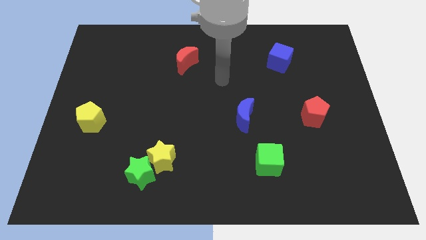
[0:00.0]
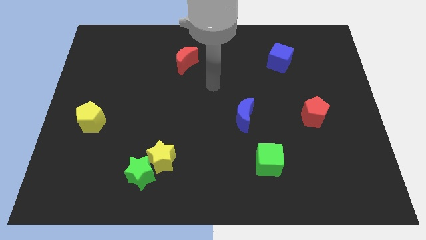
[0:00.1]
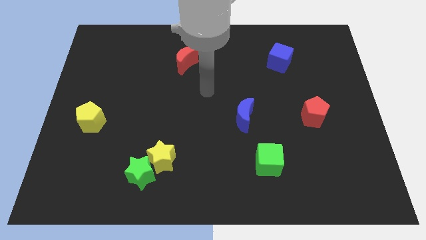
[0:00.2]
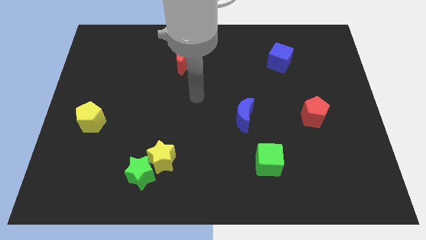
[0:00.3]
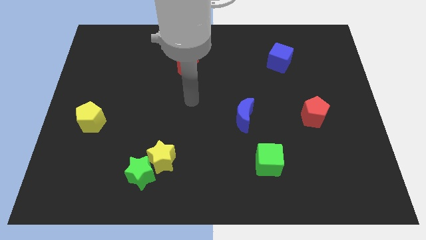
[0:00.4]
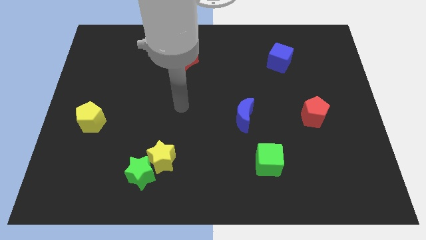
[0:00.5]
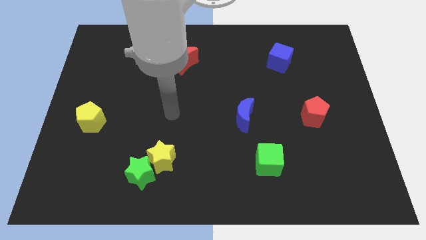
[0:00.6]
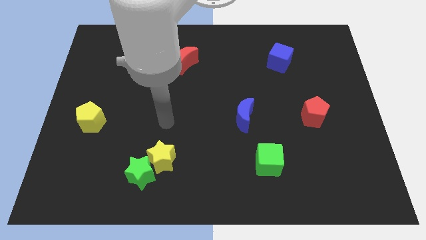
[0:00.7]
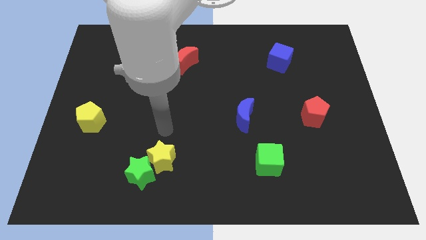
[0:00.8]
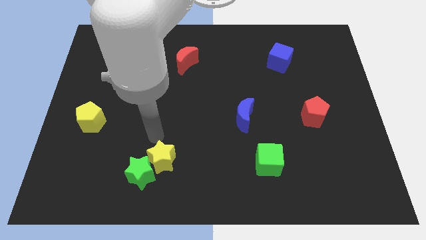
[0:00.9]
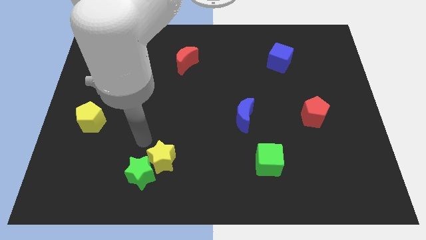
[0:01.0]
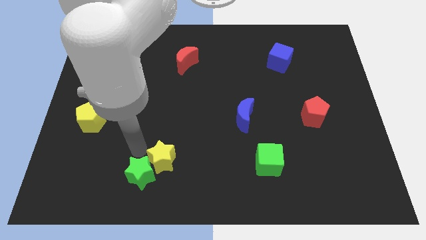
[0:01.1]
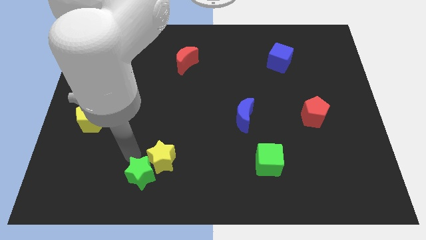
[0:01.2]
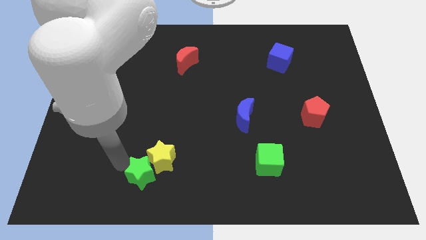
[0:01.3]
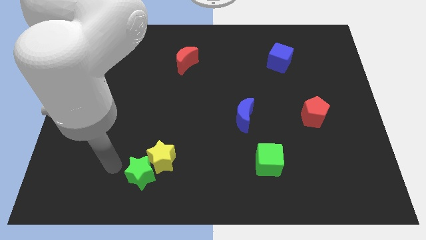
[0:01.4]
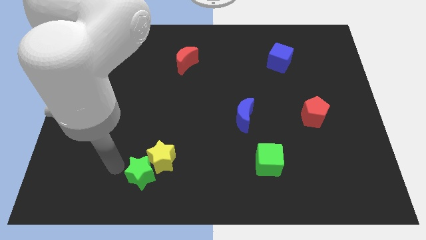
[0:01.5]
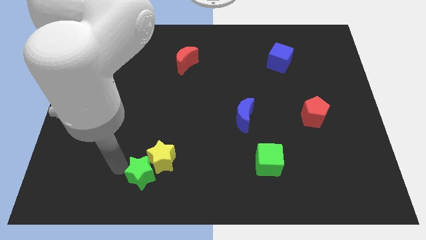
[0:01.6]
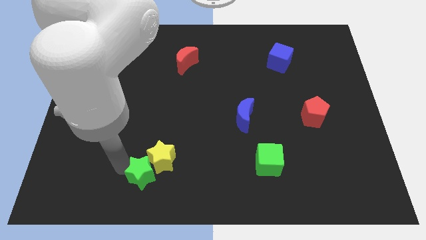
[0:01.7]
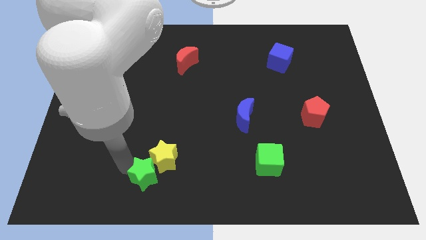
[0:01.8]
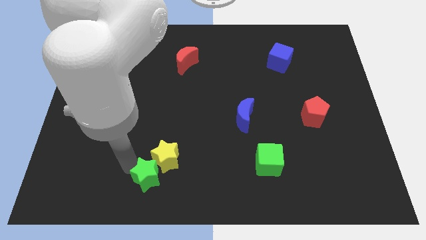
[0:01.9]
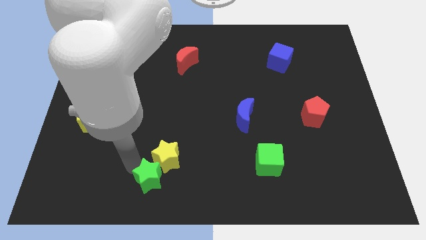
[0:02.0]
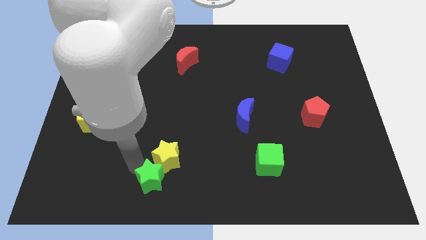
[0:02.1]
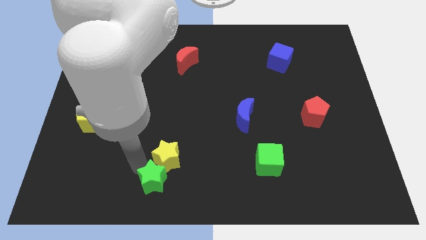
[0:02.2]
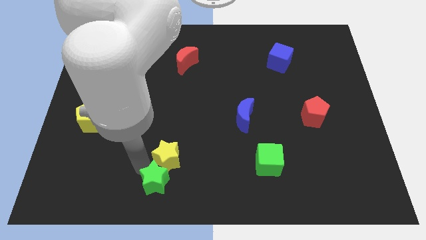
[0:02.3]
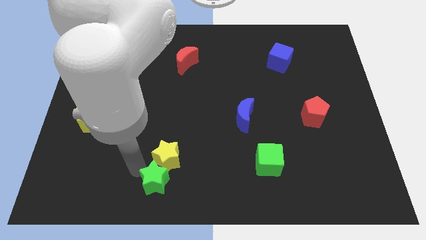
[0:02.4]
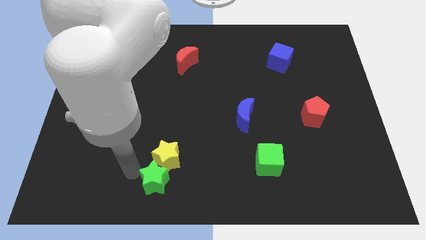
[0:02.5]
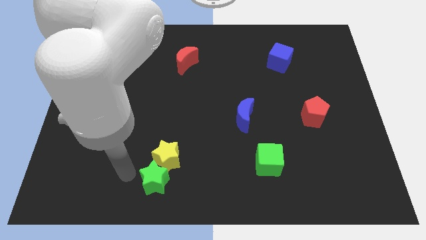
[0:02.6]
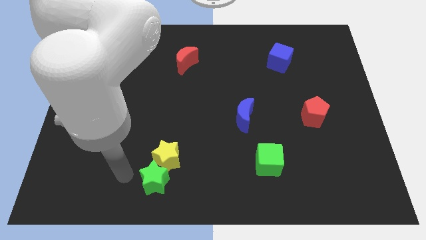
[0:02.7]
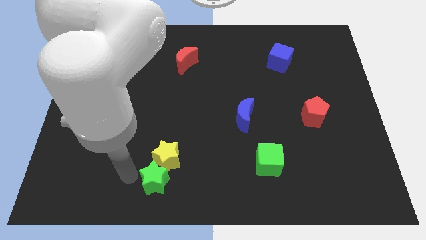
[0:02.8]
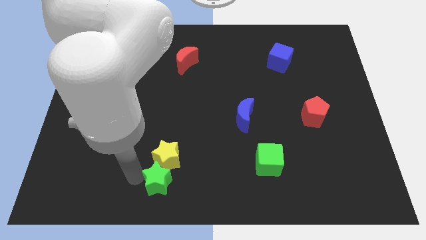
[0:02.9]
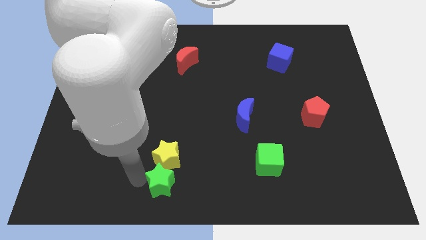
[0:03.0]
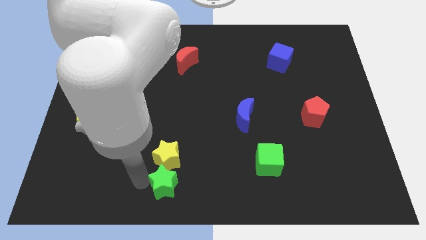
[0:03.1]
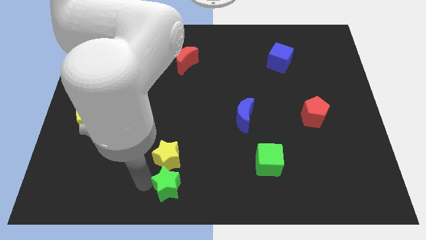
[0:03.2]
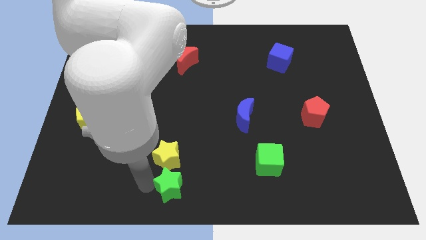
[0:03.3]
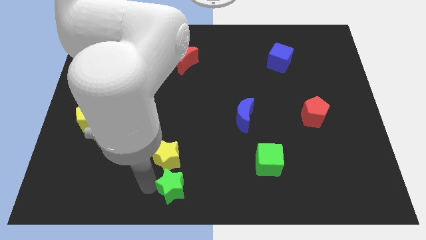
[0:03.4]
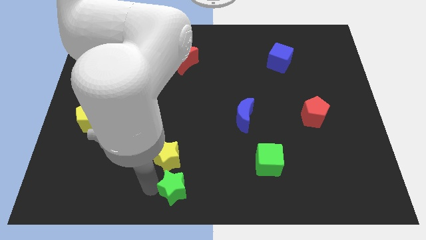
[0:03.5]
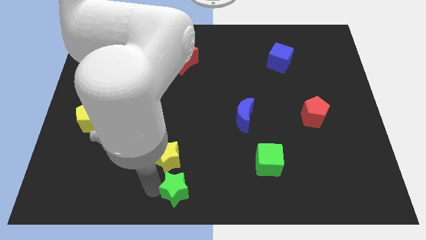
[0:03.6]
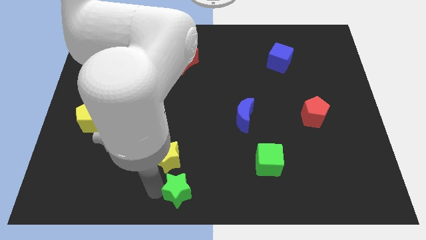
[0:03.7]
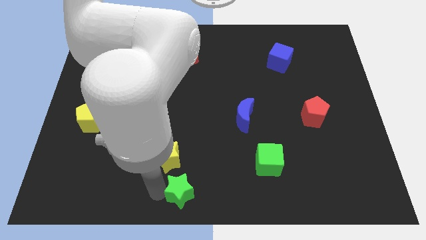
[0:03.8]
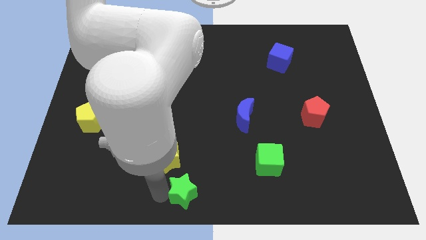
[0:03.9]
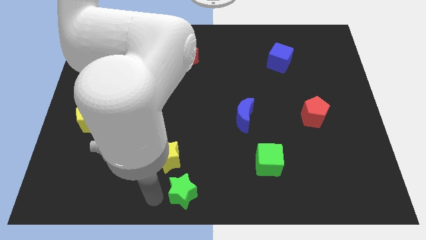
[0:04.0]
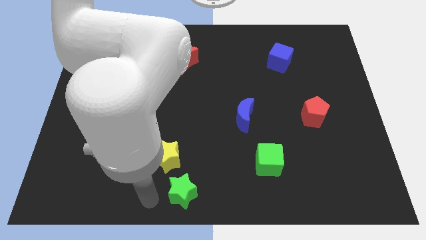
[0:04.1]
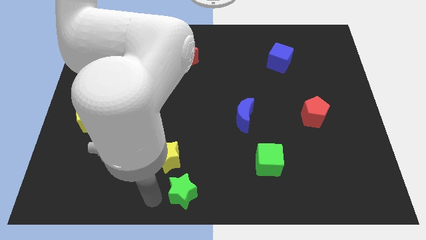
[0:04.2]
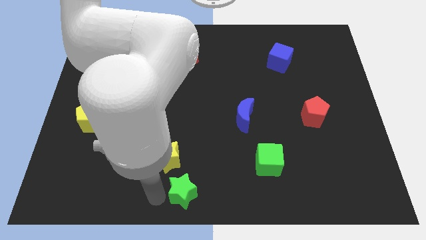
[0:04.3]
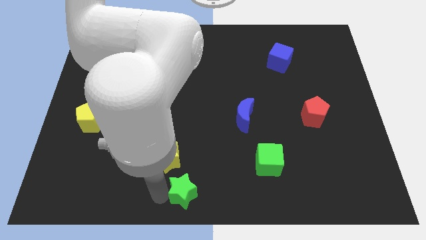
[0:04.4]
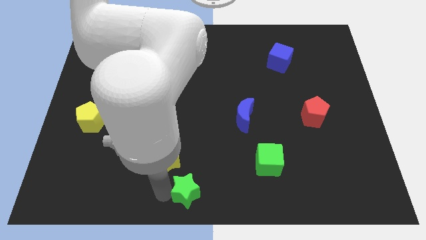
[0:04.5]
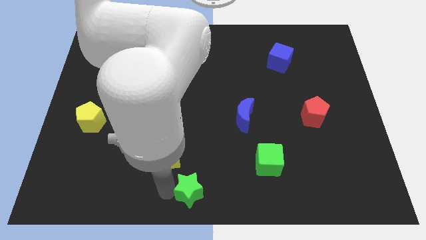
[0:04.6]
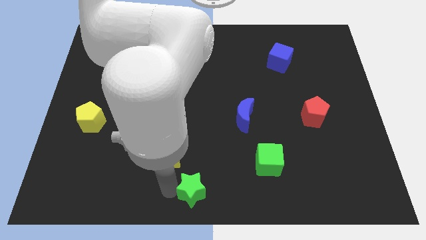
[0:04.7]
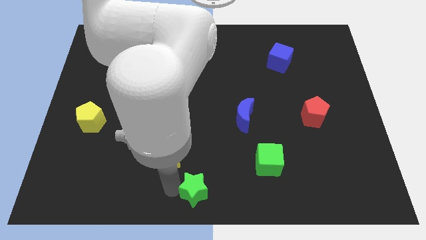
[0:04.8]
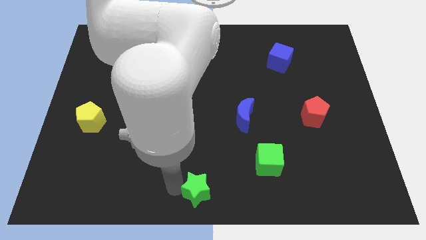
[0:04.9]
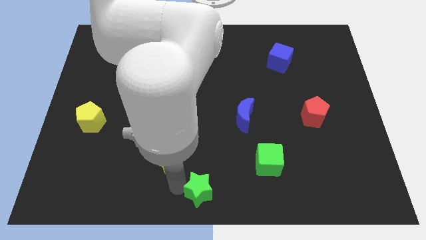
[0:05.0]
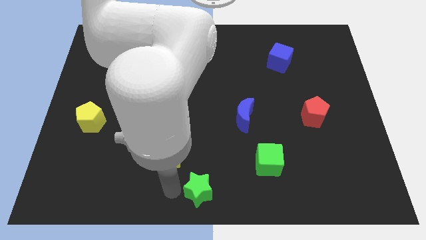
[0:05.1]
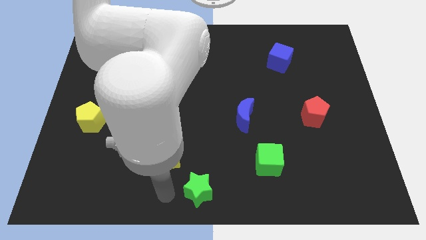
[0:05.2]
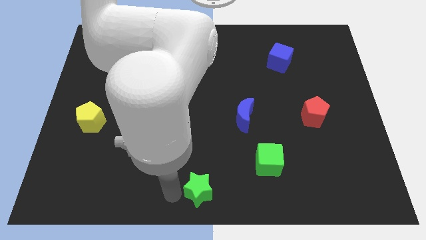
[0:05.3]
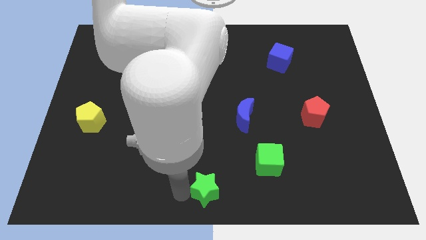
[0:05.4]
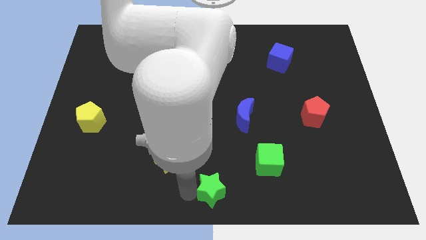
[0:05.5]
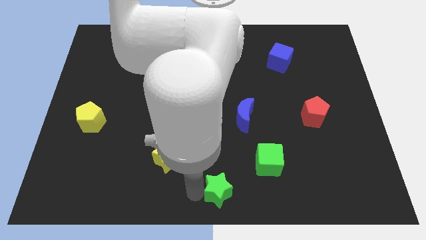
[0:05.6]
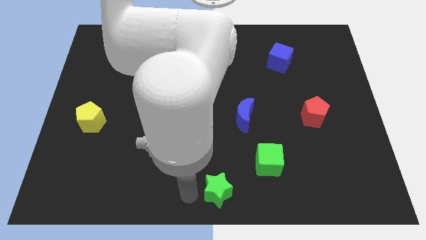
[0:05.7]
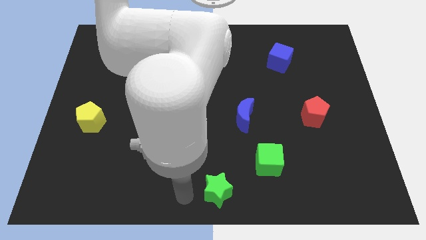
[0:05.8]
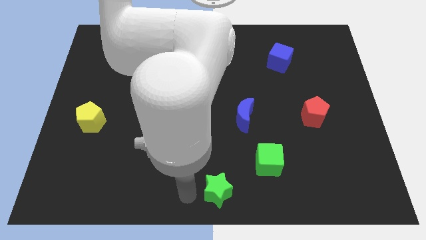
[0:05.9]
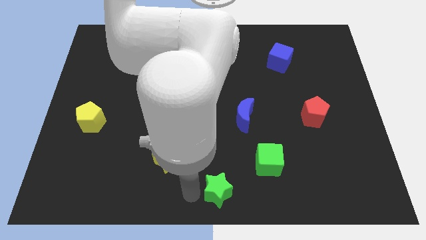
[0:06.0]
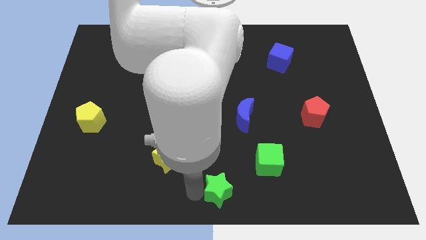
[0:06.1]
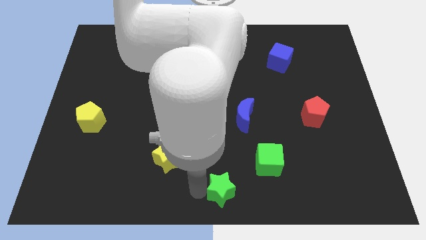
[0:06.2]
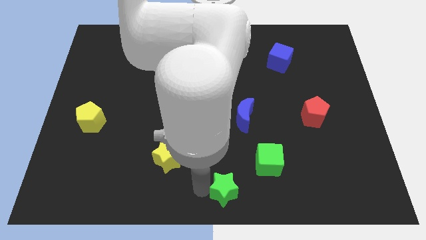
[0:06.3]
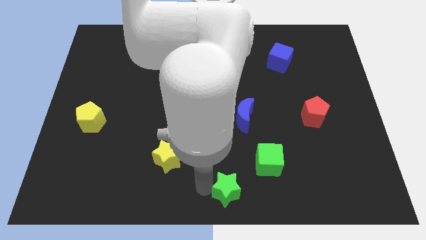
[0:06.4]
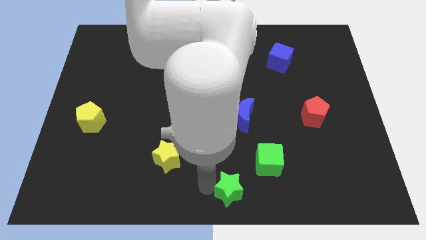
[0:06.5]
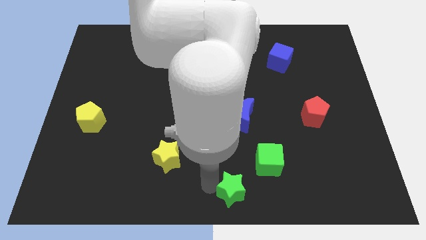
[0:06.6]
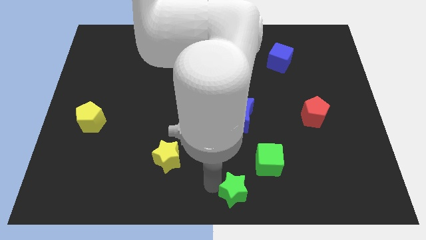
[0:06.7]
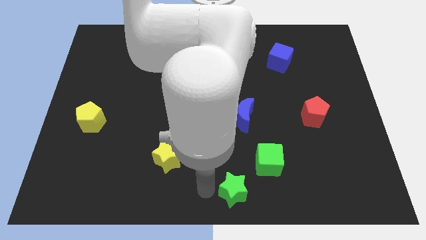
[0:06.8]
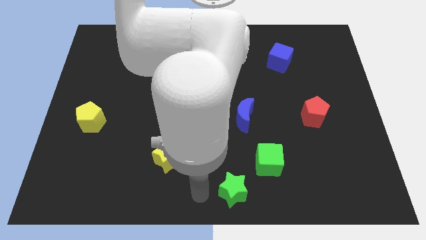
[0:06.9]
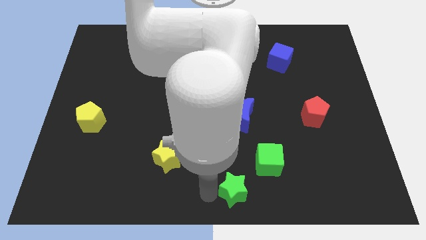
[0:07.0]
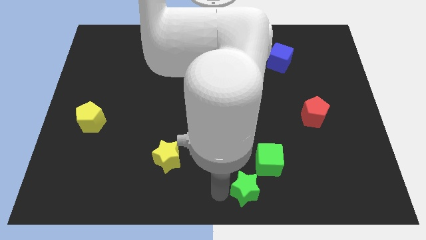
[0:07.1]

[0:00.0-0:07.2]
push the green star to the right

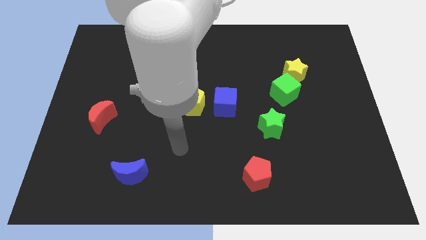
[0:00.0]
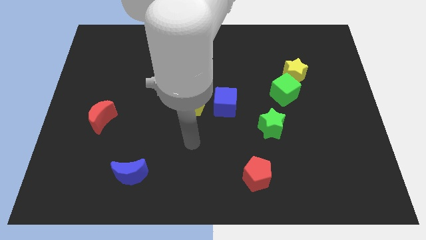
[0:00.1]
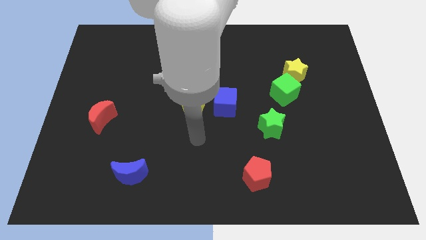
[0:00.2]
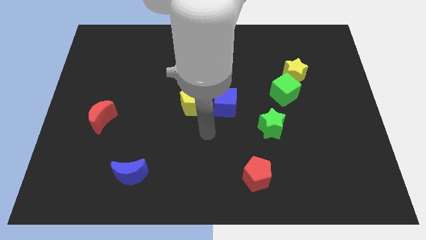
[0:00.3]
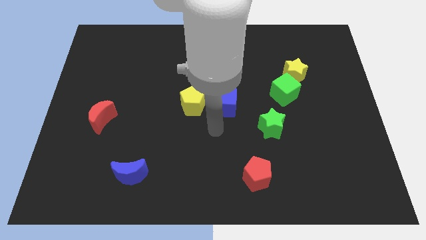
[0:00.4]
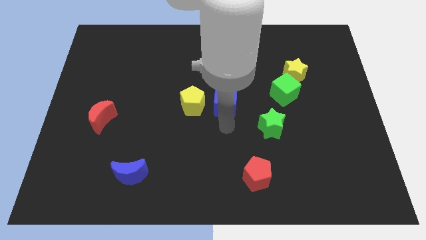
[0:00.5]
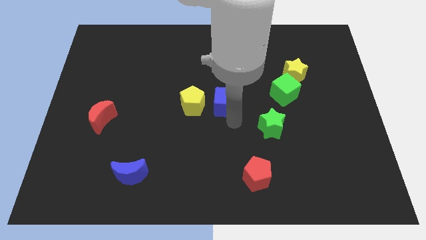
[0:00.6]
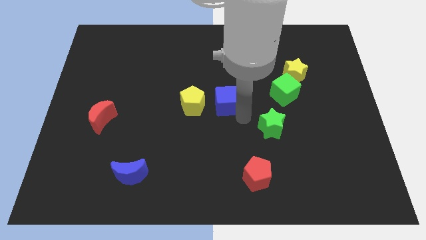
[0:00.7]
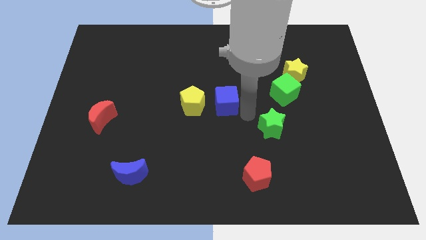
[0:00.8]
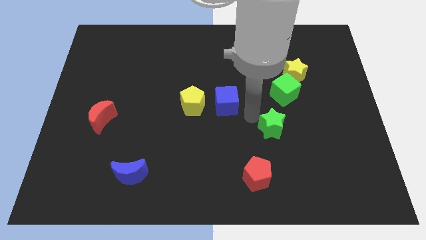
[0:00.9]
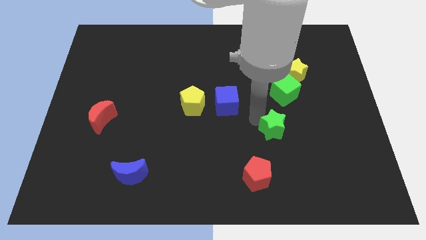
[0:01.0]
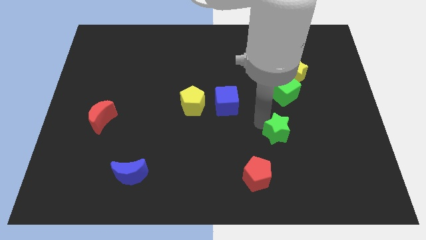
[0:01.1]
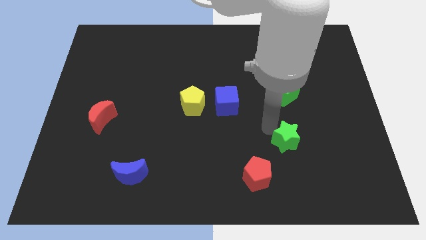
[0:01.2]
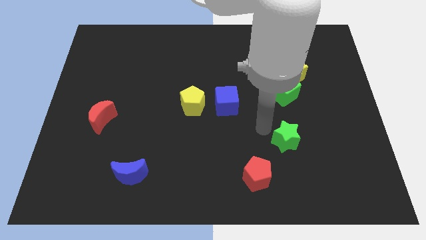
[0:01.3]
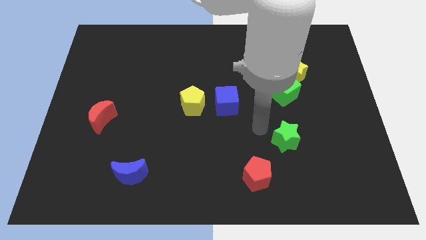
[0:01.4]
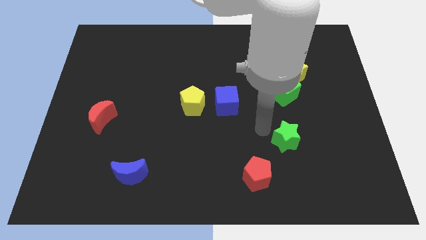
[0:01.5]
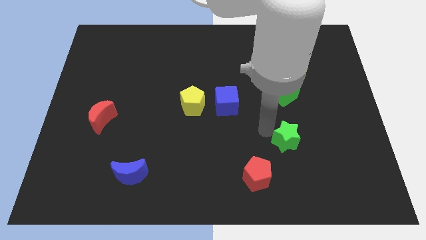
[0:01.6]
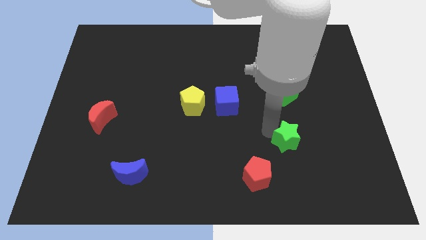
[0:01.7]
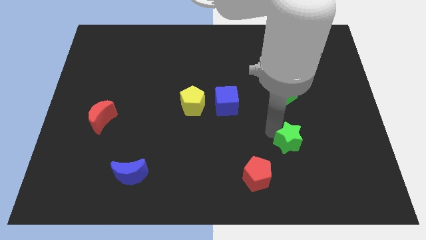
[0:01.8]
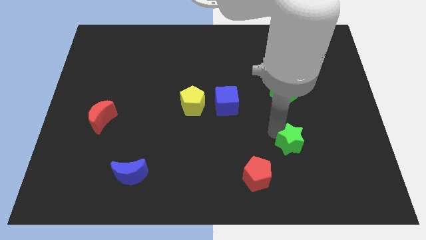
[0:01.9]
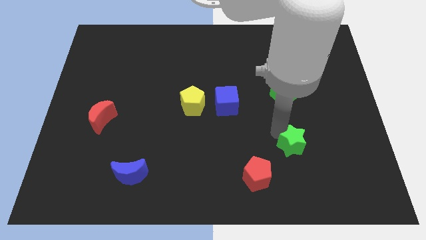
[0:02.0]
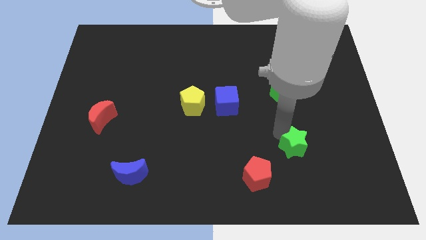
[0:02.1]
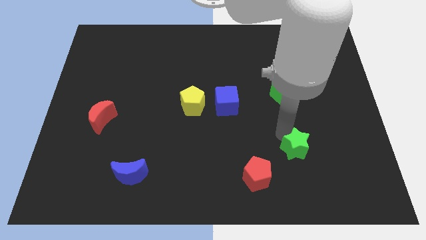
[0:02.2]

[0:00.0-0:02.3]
slightly push the green star down and to the right
